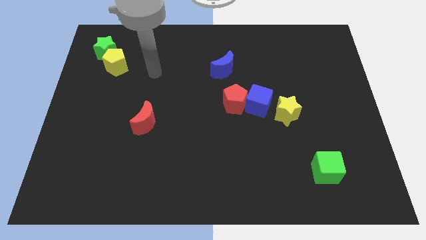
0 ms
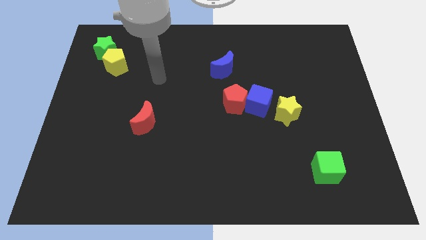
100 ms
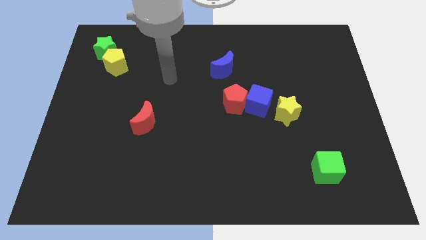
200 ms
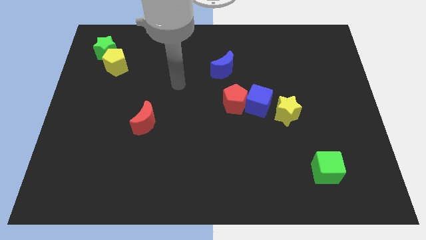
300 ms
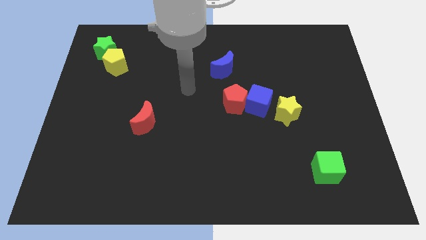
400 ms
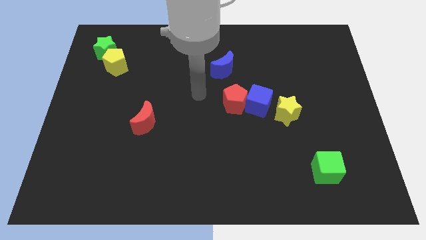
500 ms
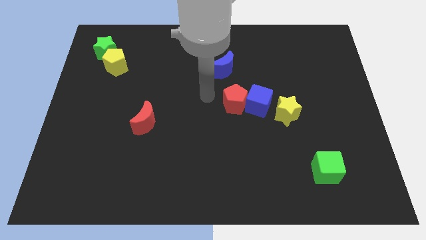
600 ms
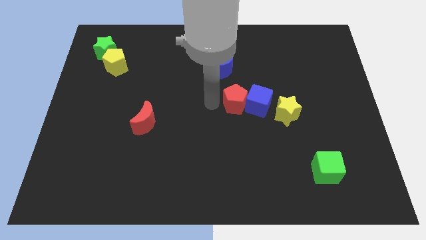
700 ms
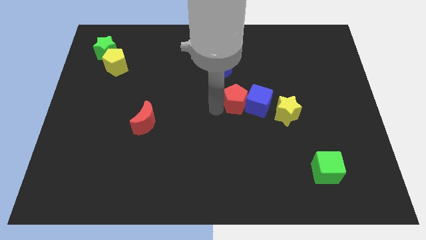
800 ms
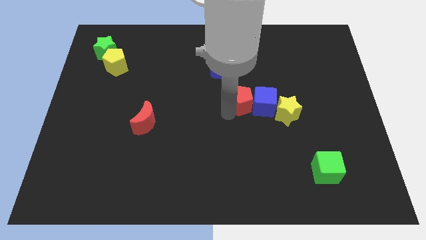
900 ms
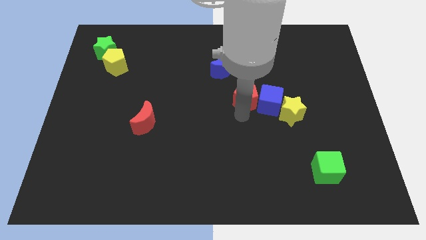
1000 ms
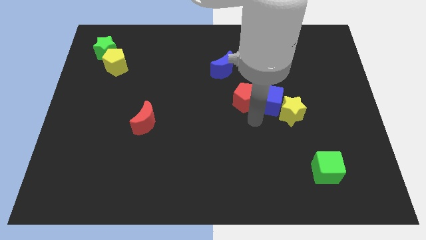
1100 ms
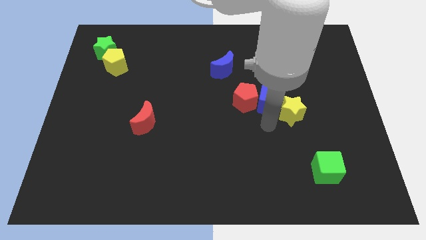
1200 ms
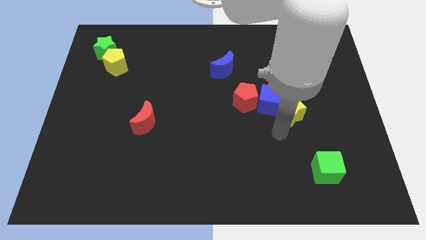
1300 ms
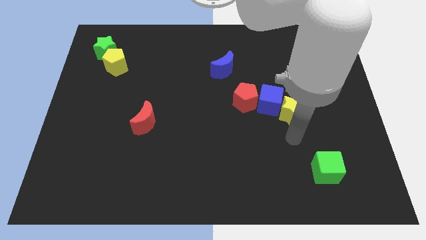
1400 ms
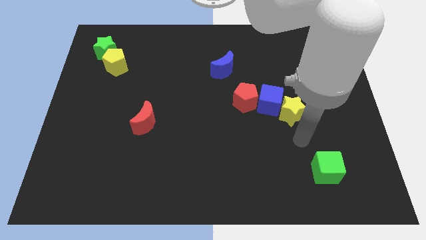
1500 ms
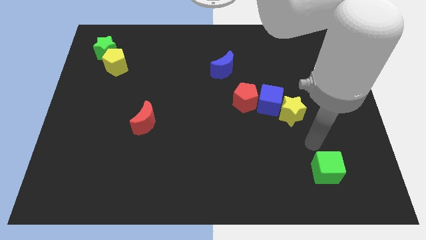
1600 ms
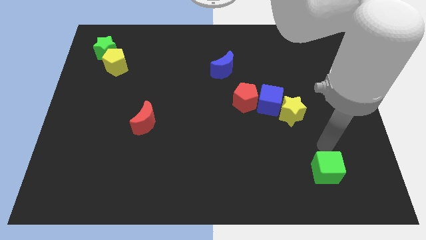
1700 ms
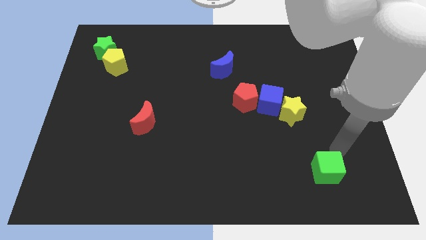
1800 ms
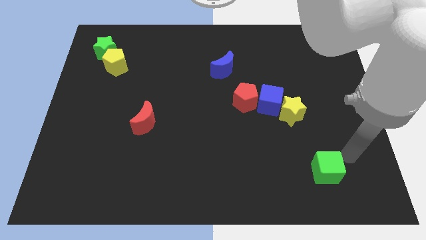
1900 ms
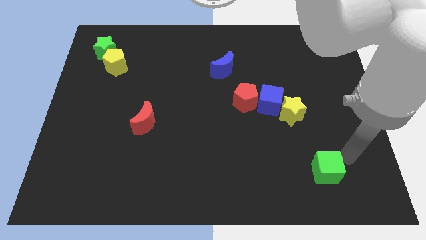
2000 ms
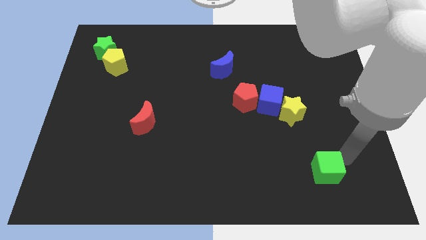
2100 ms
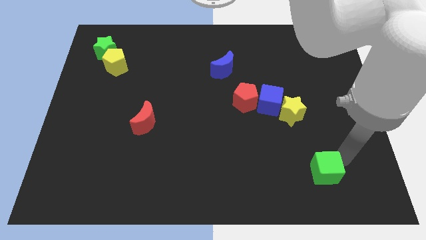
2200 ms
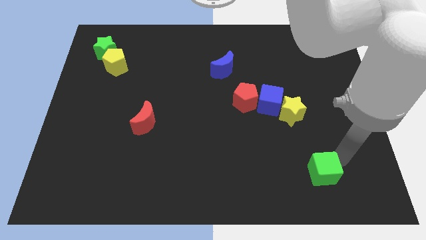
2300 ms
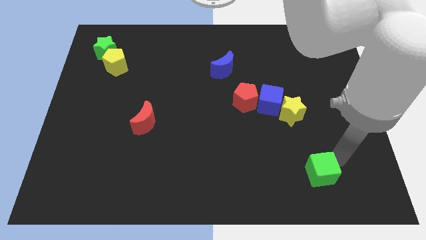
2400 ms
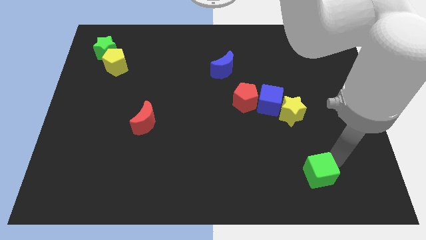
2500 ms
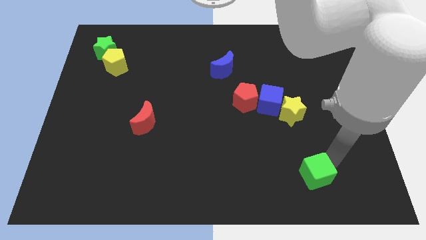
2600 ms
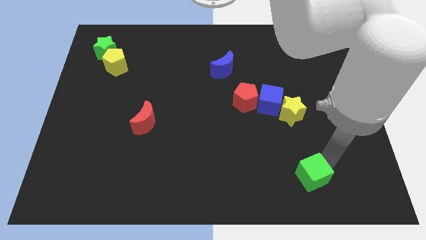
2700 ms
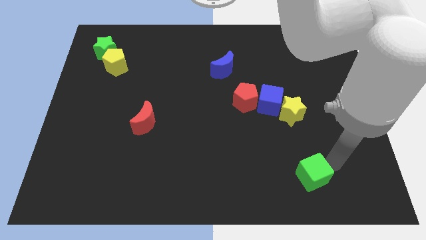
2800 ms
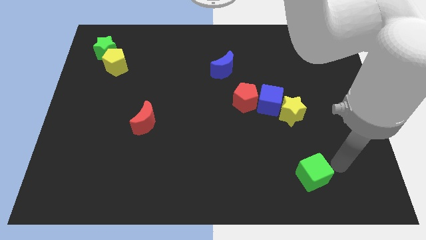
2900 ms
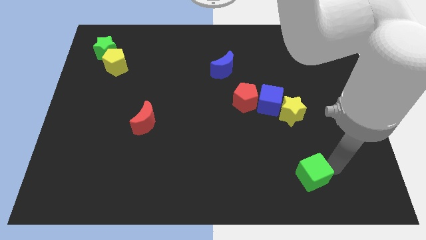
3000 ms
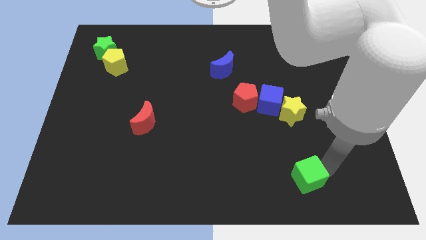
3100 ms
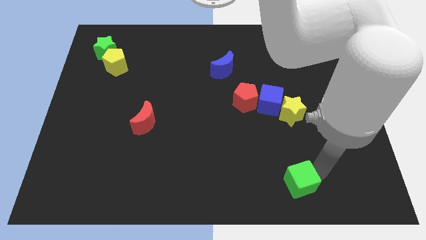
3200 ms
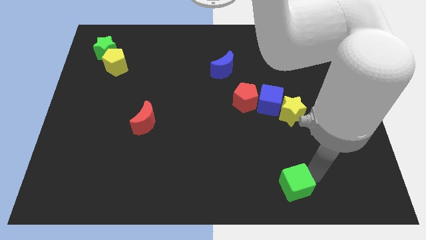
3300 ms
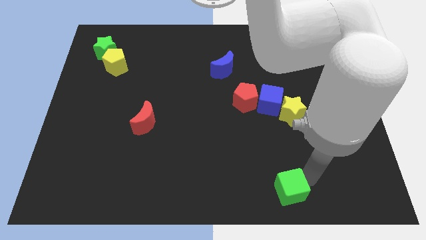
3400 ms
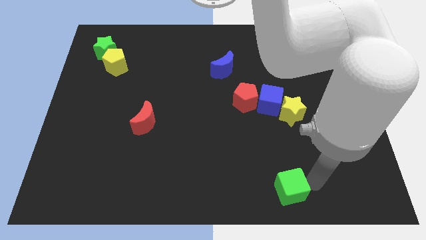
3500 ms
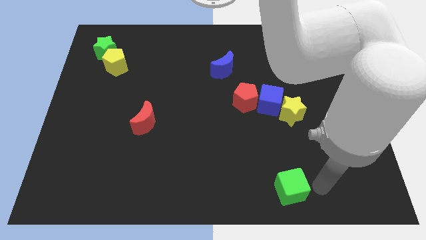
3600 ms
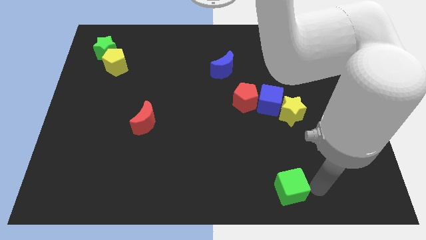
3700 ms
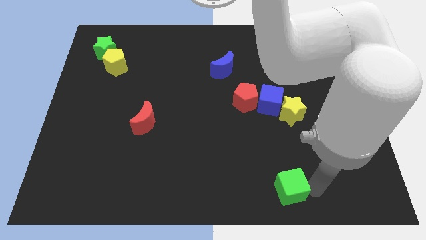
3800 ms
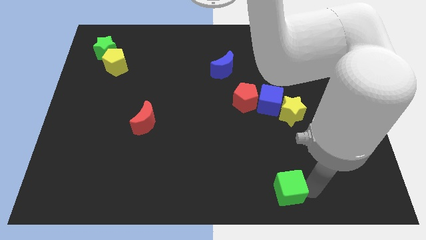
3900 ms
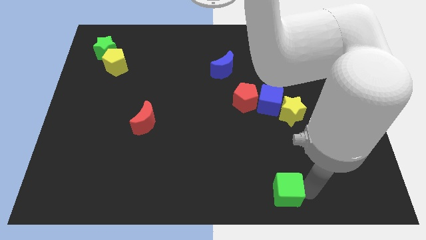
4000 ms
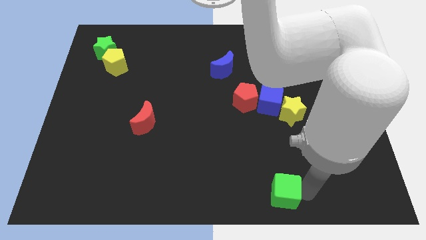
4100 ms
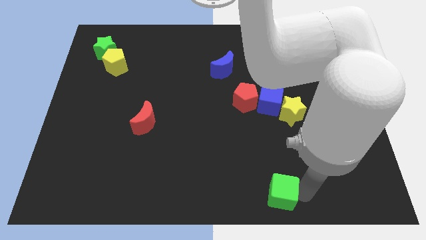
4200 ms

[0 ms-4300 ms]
slide the green cube to the bottom side

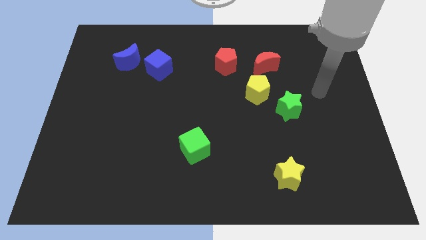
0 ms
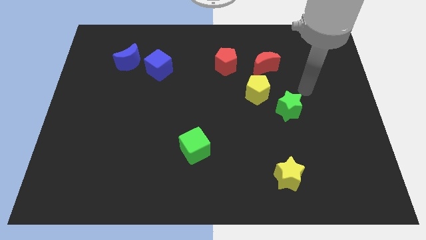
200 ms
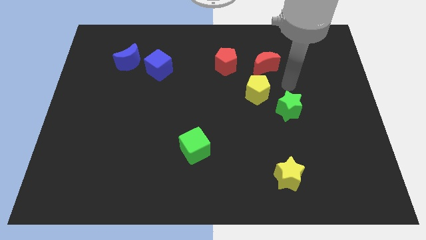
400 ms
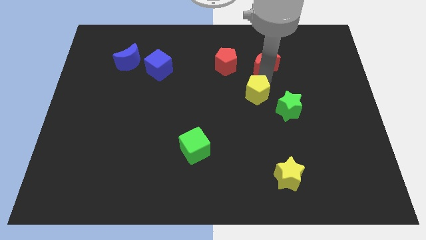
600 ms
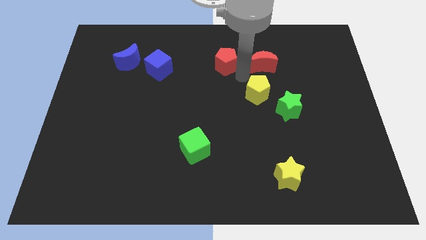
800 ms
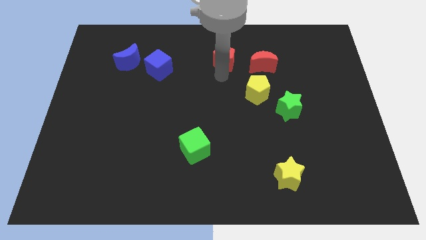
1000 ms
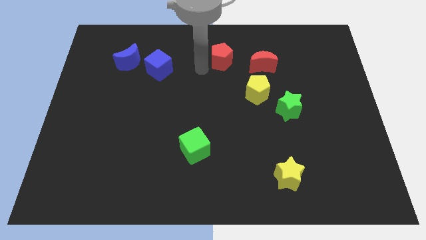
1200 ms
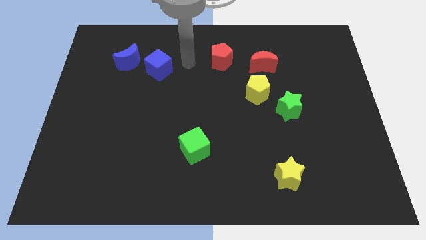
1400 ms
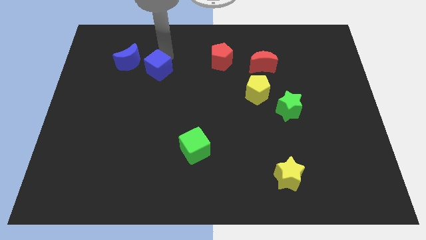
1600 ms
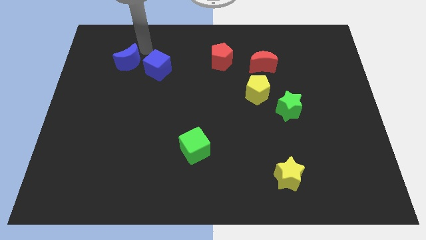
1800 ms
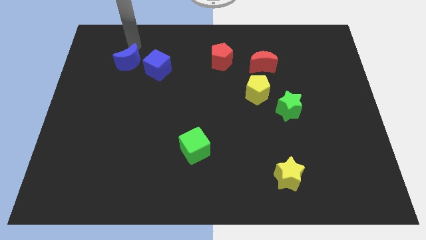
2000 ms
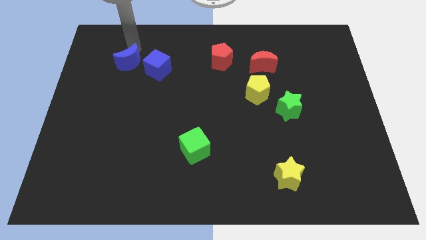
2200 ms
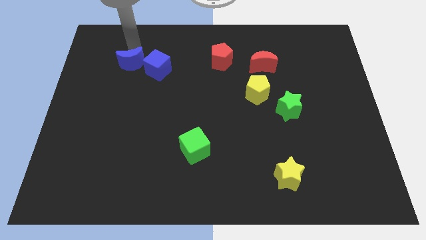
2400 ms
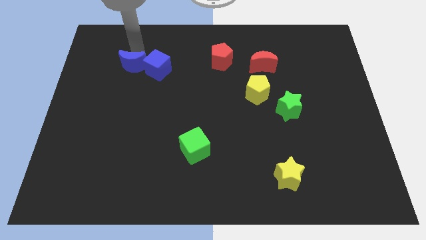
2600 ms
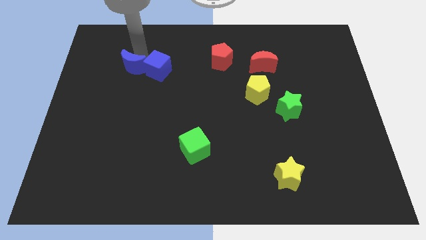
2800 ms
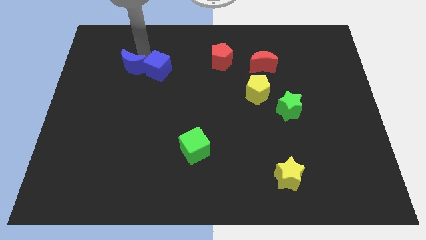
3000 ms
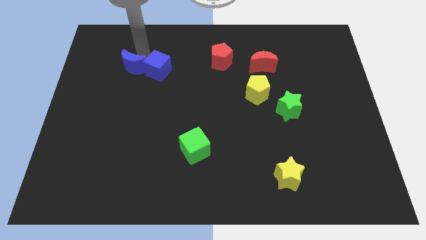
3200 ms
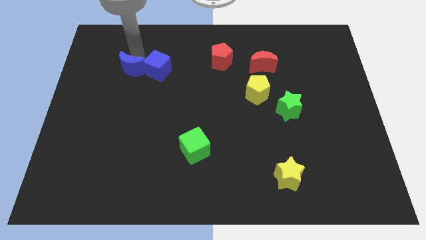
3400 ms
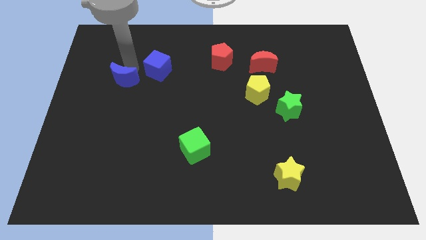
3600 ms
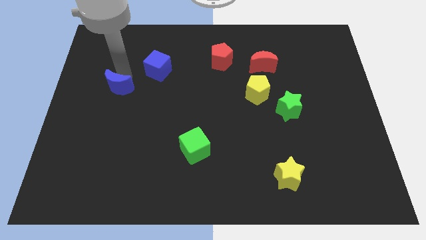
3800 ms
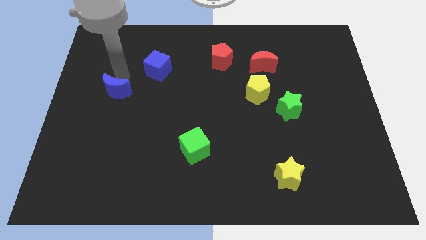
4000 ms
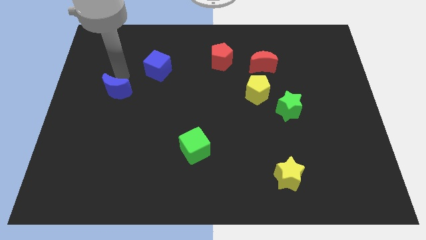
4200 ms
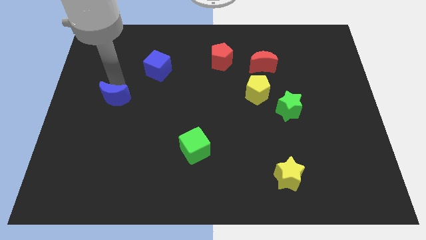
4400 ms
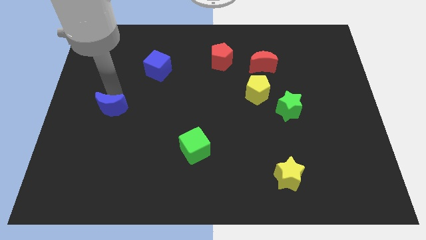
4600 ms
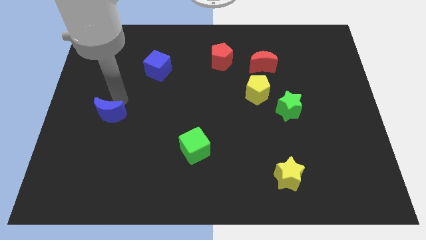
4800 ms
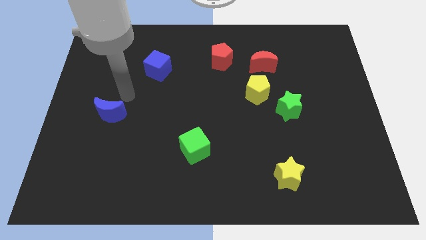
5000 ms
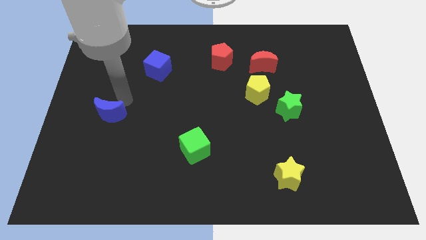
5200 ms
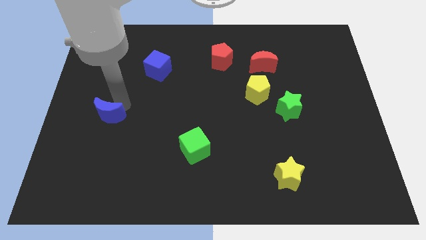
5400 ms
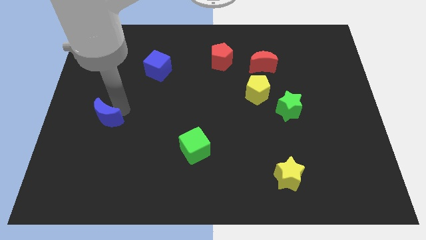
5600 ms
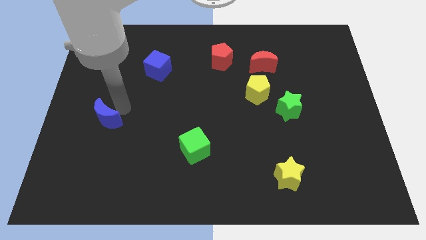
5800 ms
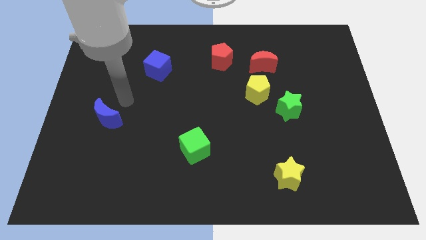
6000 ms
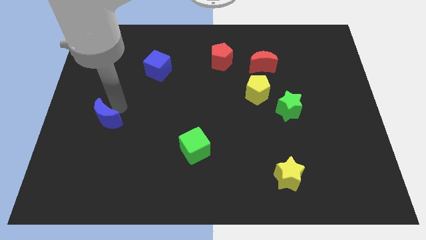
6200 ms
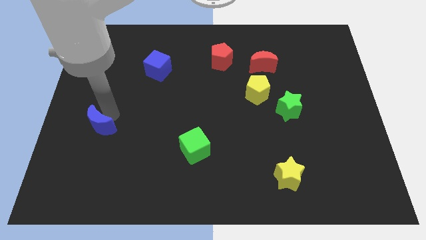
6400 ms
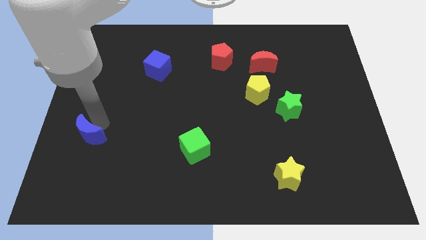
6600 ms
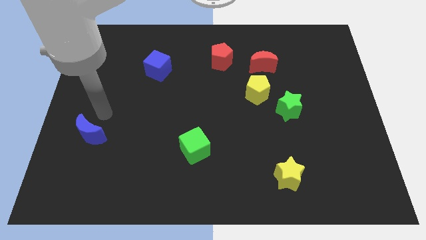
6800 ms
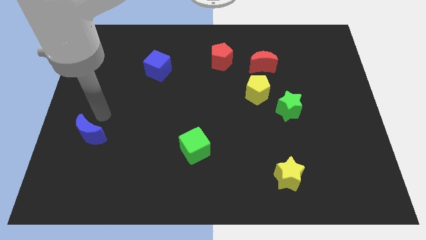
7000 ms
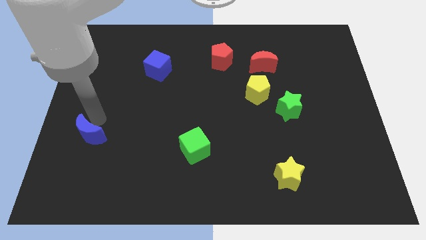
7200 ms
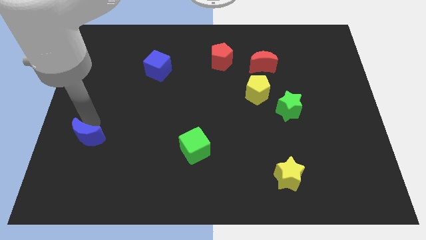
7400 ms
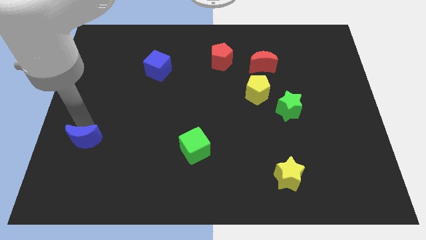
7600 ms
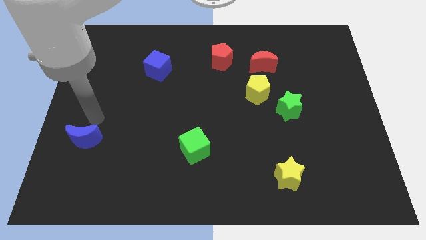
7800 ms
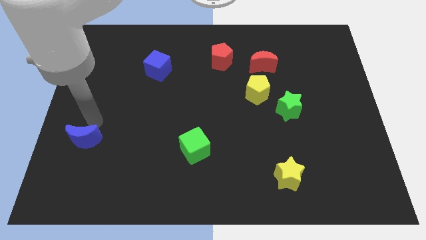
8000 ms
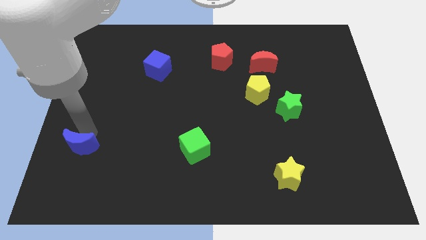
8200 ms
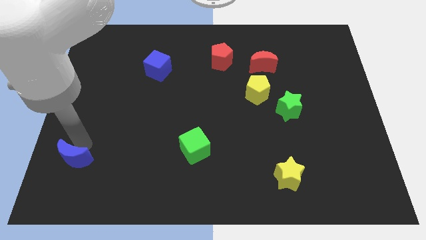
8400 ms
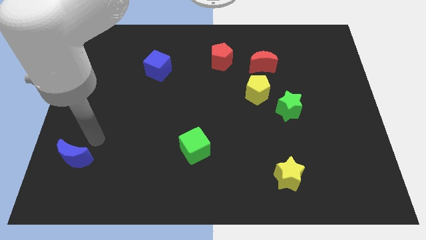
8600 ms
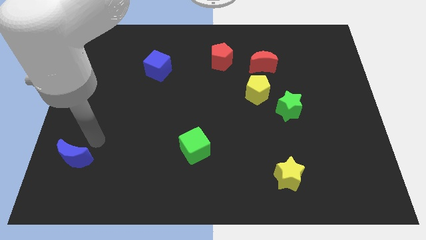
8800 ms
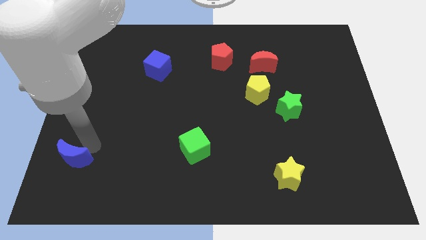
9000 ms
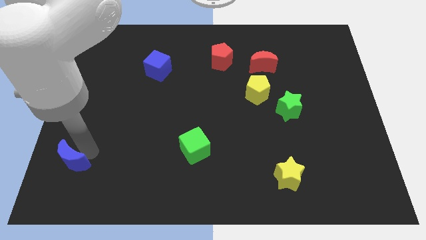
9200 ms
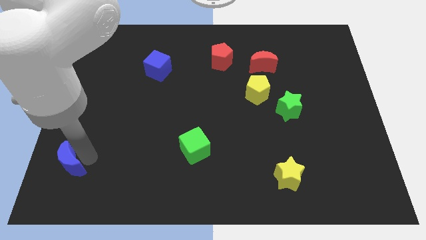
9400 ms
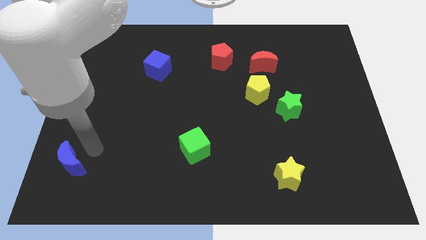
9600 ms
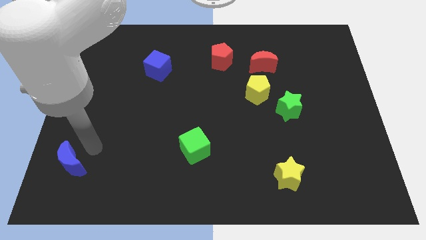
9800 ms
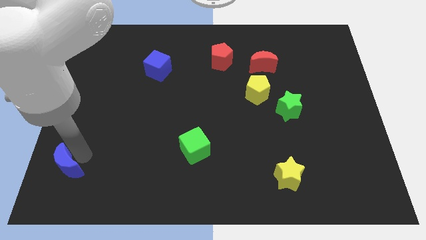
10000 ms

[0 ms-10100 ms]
move the blue moon to the bottom left corner
